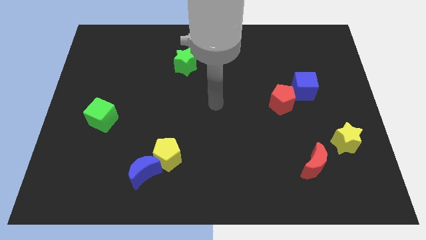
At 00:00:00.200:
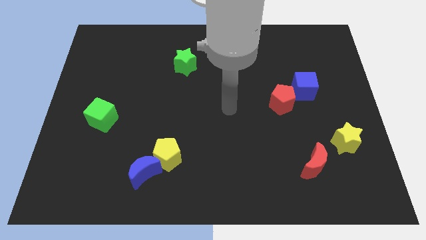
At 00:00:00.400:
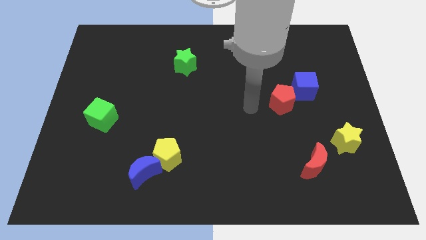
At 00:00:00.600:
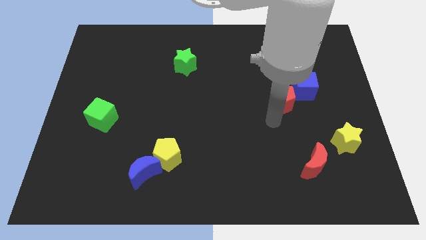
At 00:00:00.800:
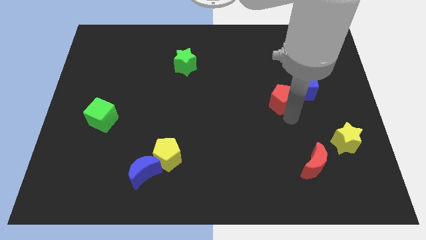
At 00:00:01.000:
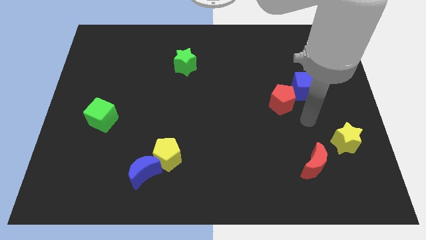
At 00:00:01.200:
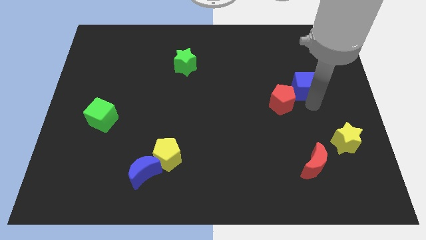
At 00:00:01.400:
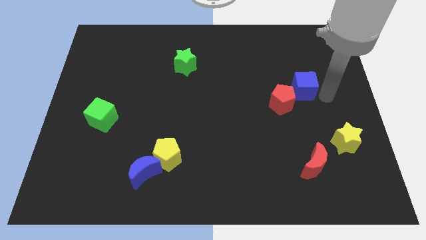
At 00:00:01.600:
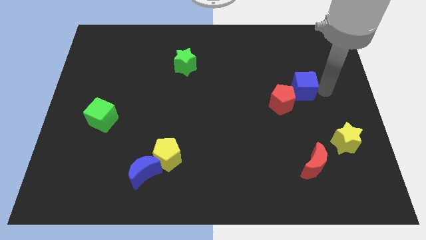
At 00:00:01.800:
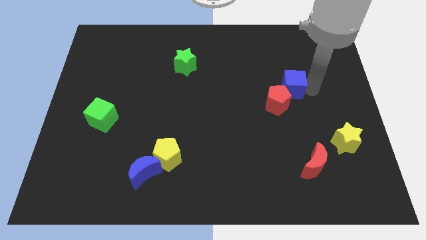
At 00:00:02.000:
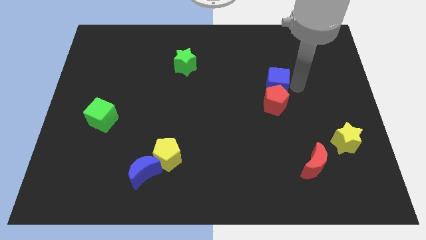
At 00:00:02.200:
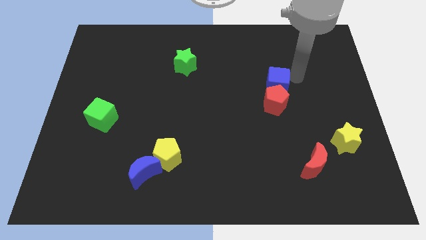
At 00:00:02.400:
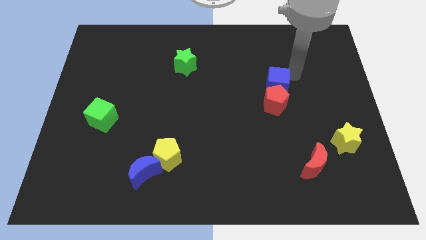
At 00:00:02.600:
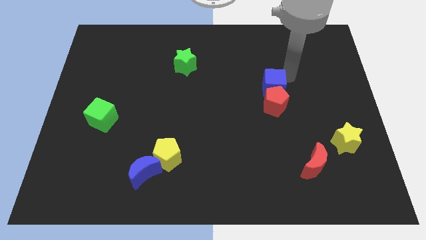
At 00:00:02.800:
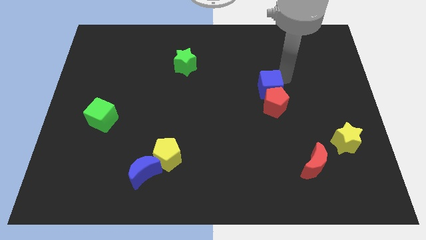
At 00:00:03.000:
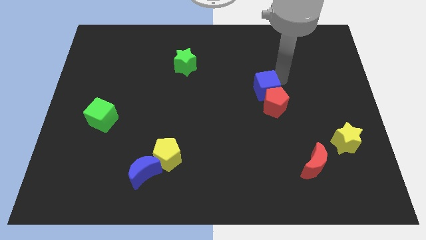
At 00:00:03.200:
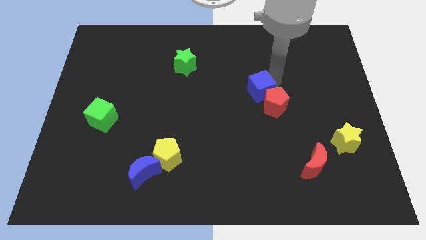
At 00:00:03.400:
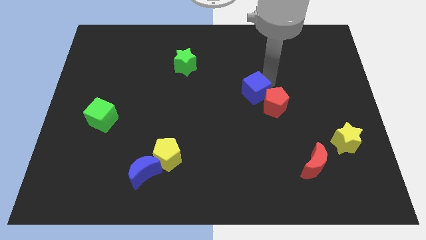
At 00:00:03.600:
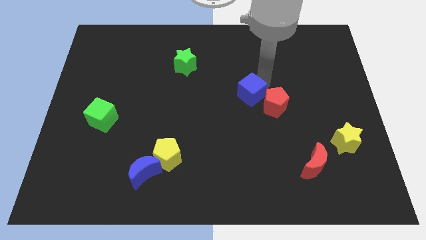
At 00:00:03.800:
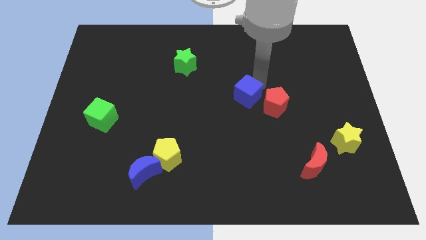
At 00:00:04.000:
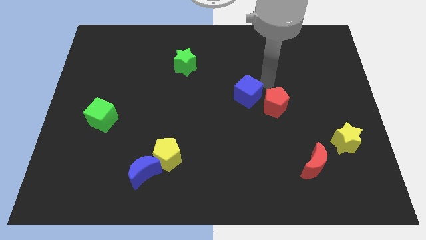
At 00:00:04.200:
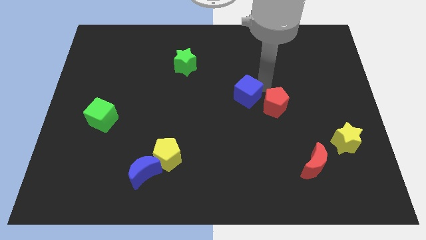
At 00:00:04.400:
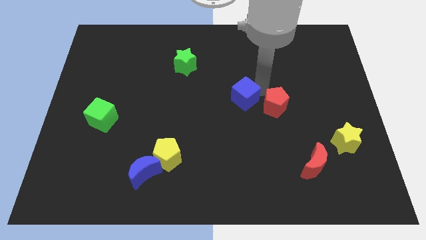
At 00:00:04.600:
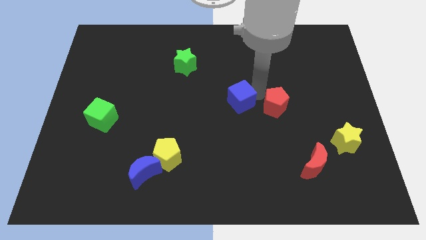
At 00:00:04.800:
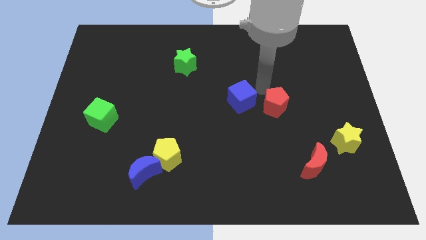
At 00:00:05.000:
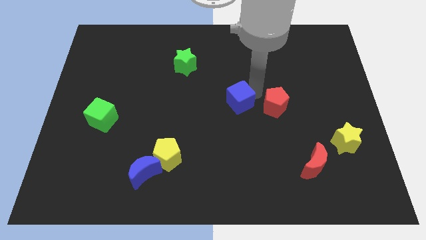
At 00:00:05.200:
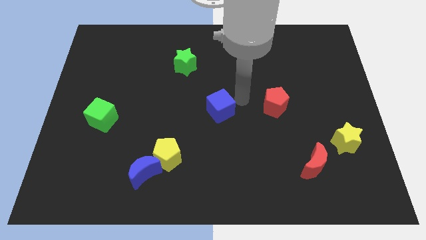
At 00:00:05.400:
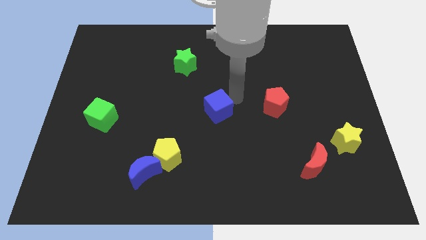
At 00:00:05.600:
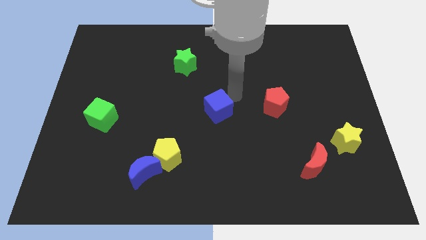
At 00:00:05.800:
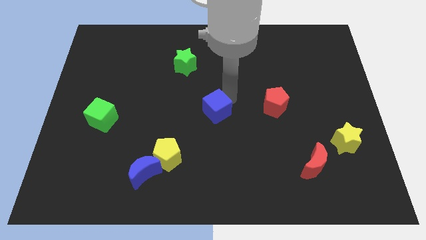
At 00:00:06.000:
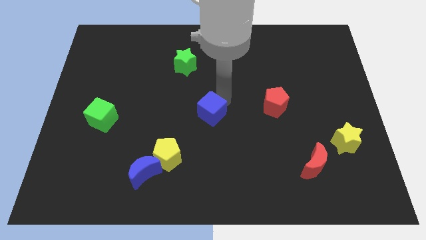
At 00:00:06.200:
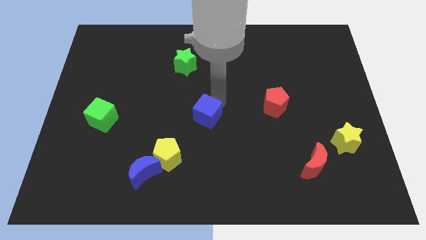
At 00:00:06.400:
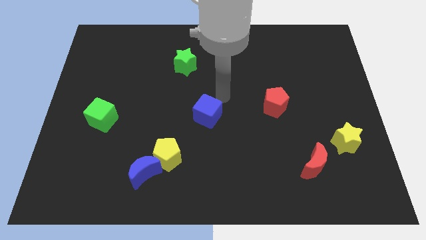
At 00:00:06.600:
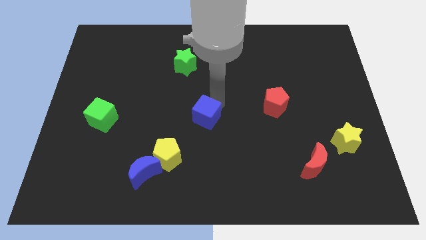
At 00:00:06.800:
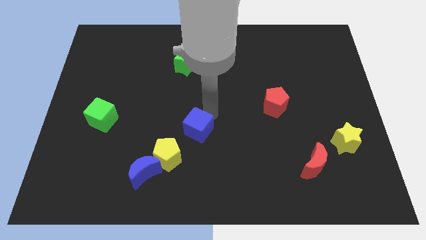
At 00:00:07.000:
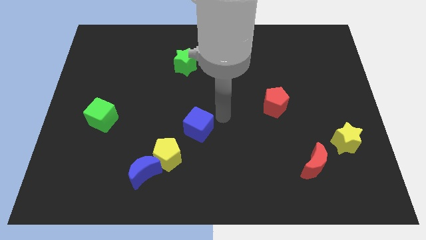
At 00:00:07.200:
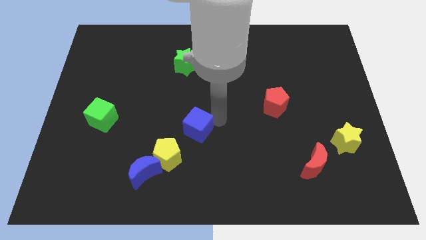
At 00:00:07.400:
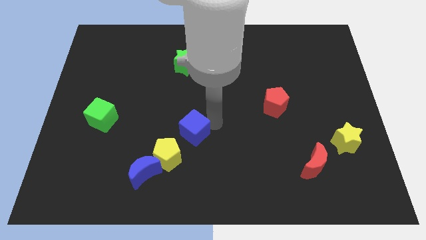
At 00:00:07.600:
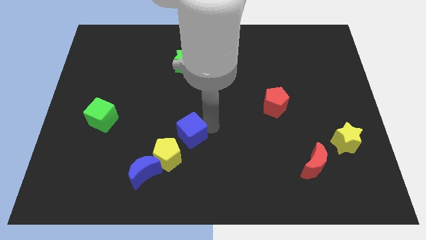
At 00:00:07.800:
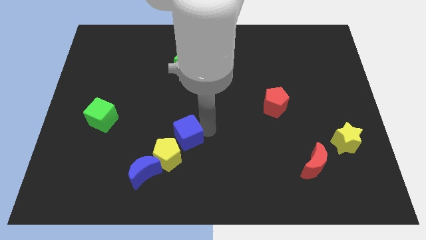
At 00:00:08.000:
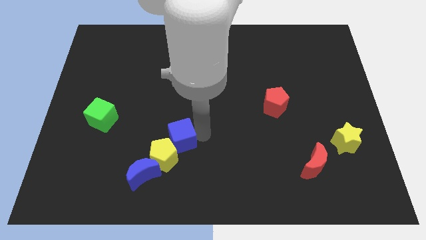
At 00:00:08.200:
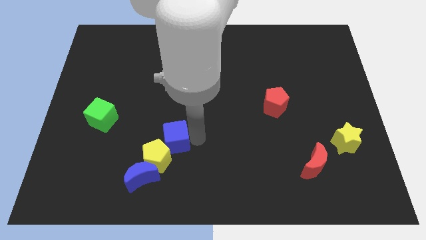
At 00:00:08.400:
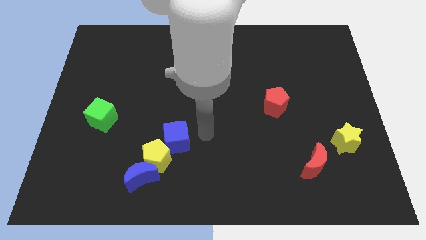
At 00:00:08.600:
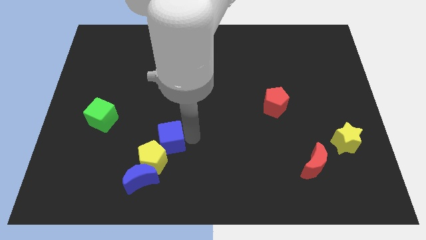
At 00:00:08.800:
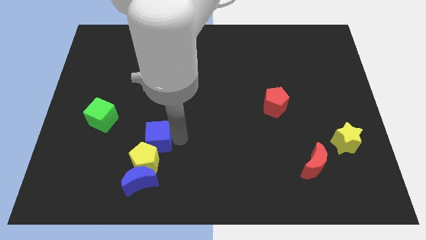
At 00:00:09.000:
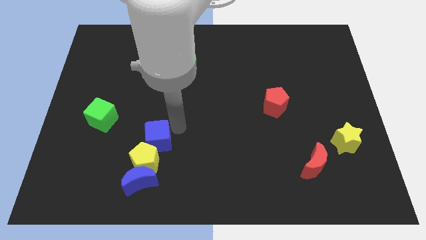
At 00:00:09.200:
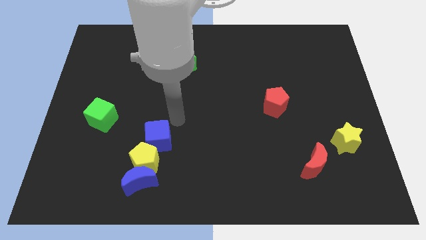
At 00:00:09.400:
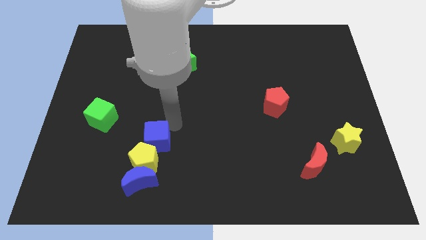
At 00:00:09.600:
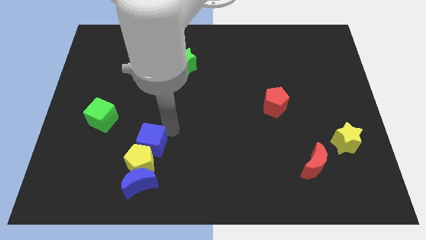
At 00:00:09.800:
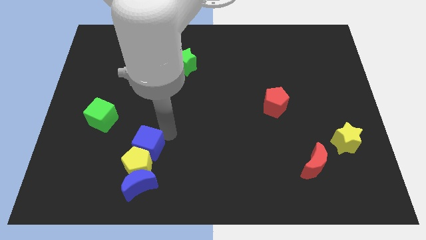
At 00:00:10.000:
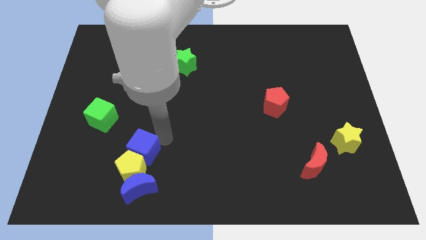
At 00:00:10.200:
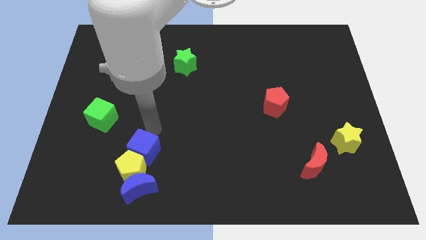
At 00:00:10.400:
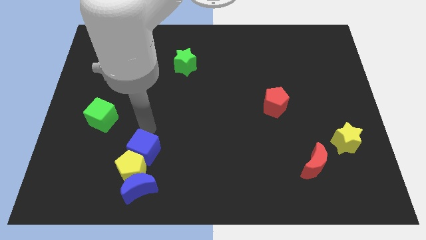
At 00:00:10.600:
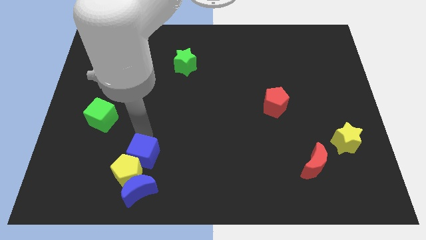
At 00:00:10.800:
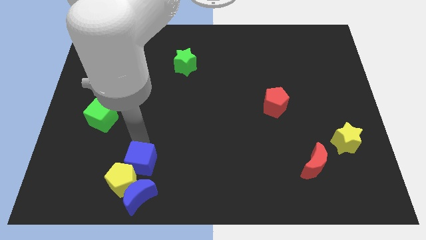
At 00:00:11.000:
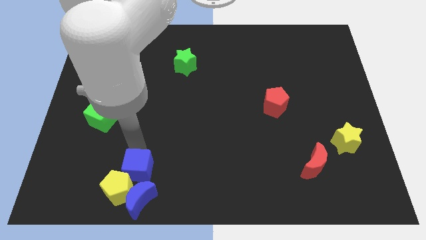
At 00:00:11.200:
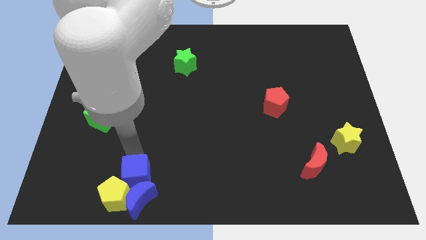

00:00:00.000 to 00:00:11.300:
move the blue cube to the blue moon

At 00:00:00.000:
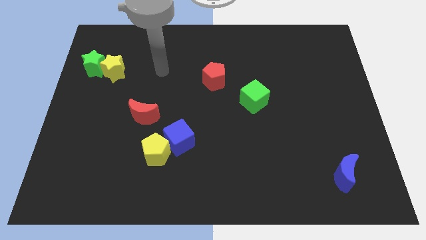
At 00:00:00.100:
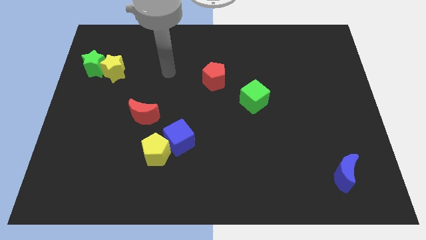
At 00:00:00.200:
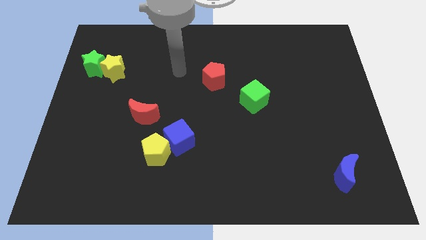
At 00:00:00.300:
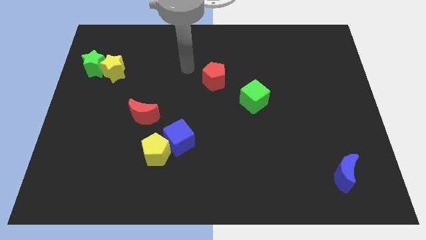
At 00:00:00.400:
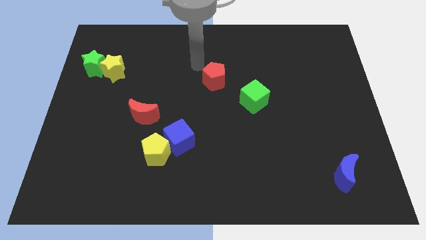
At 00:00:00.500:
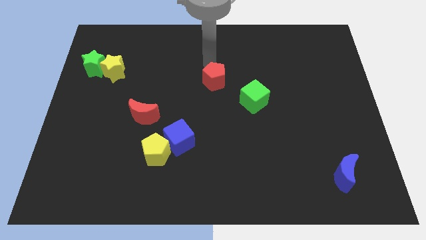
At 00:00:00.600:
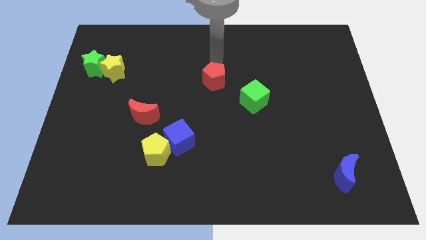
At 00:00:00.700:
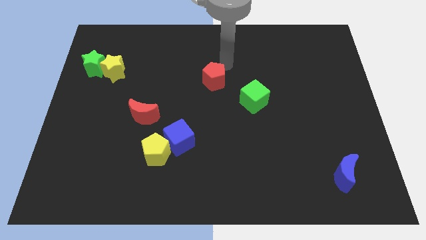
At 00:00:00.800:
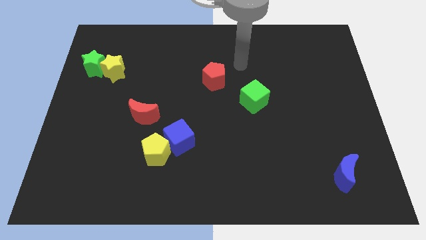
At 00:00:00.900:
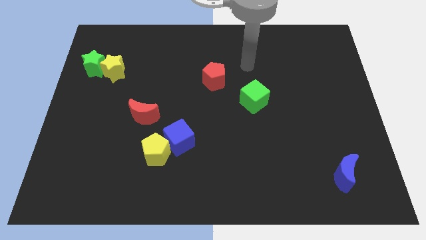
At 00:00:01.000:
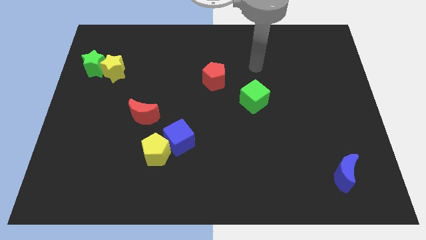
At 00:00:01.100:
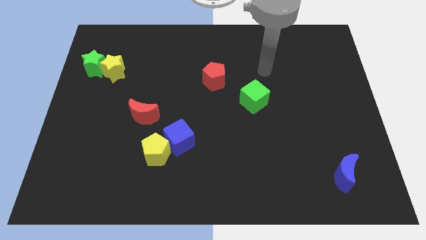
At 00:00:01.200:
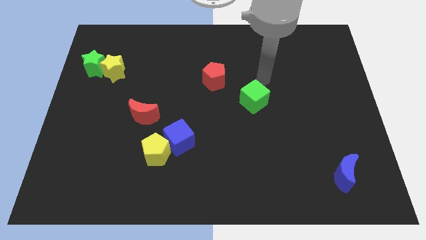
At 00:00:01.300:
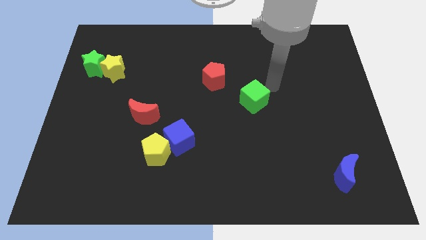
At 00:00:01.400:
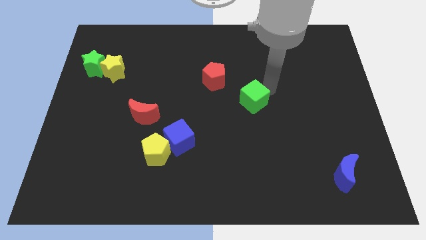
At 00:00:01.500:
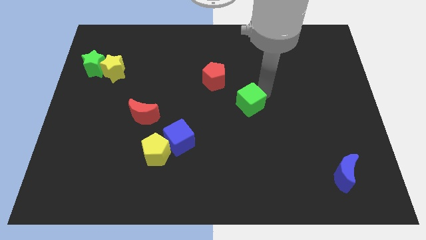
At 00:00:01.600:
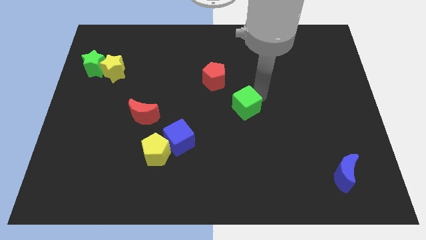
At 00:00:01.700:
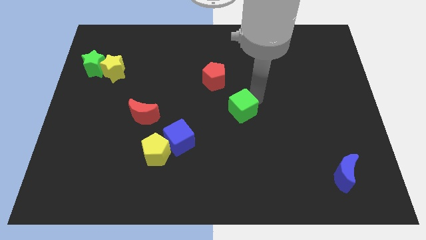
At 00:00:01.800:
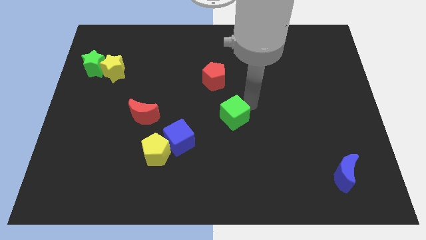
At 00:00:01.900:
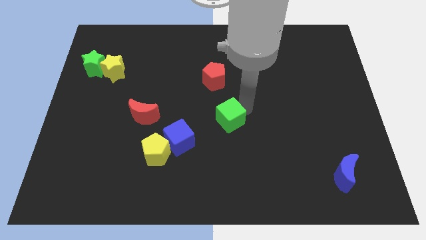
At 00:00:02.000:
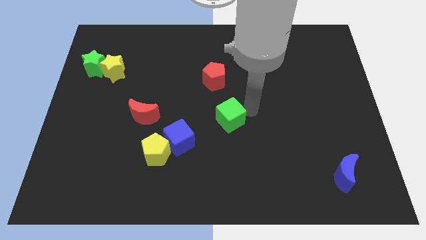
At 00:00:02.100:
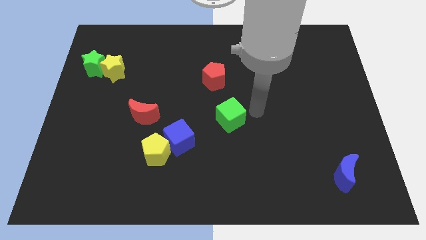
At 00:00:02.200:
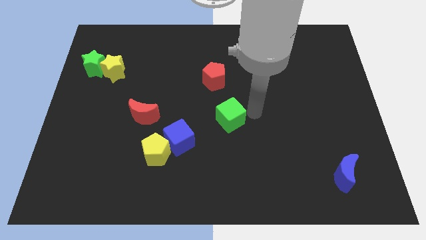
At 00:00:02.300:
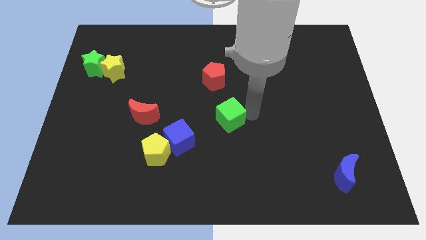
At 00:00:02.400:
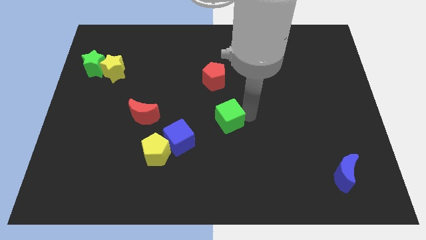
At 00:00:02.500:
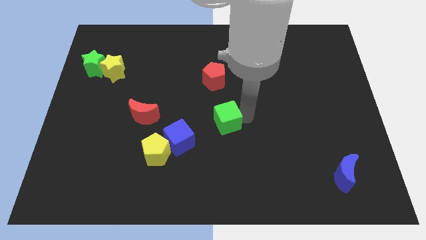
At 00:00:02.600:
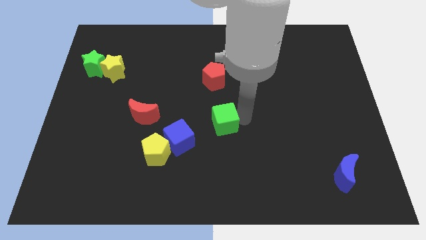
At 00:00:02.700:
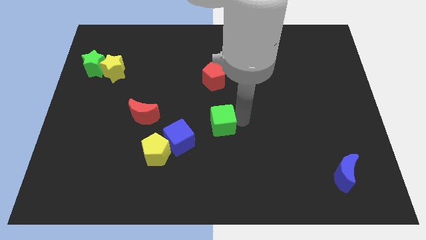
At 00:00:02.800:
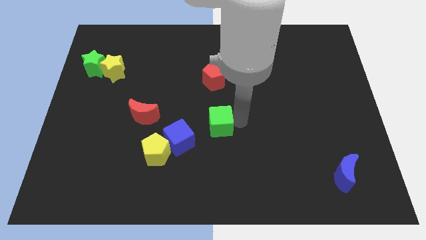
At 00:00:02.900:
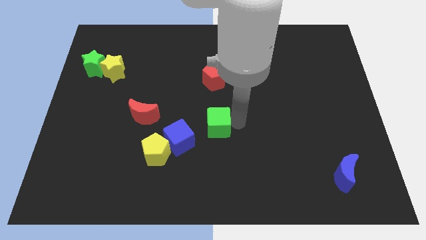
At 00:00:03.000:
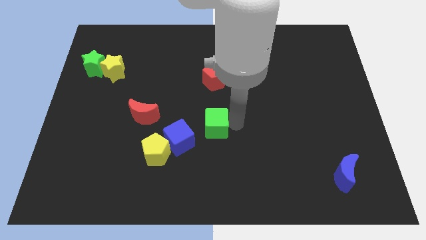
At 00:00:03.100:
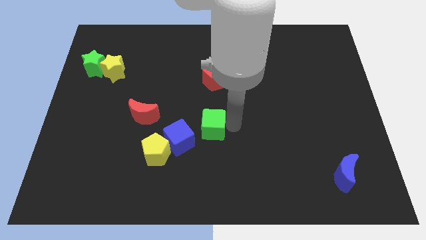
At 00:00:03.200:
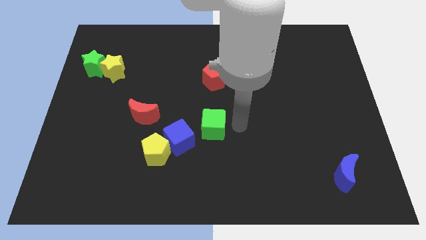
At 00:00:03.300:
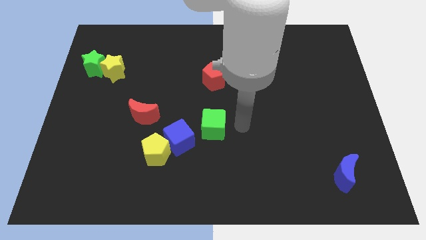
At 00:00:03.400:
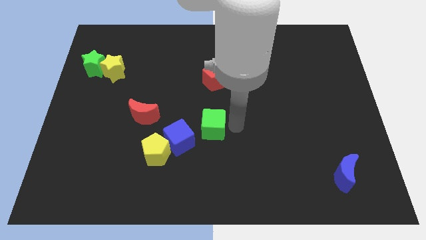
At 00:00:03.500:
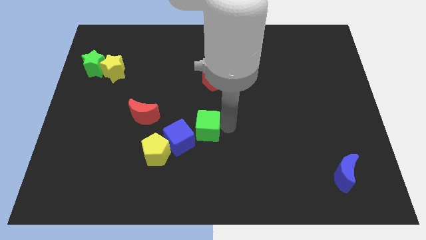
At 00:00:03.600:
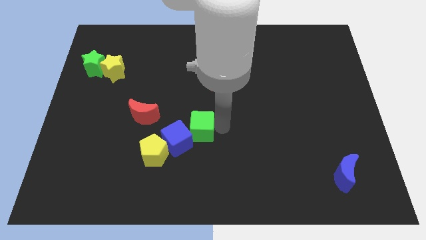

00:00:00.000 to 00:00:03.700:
put the green cube next to the blue cube
